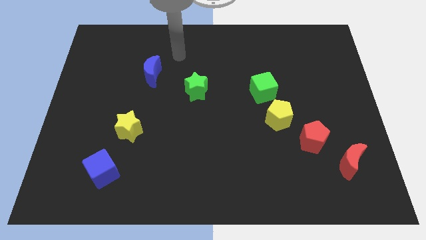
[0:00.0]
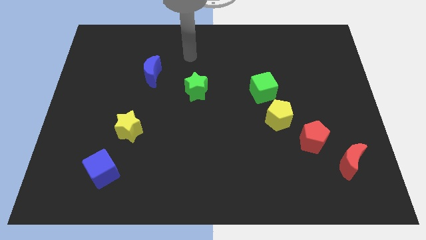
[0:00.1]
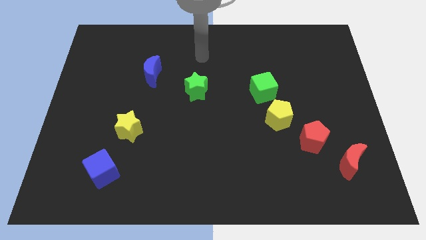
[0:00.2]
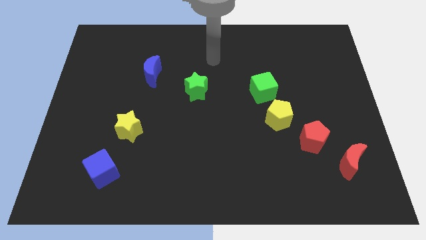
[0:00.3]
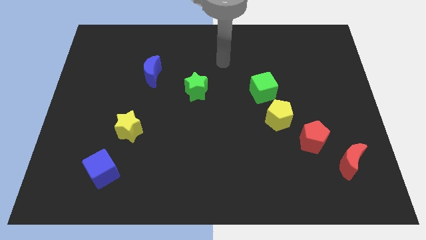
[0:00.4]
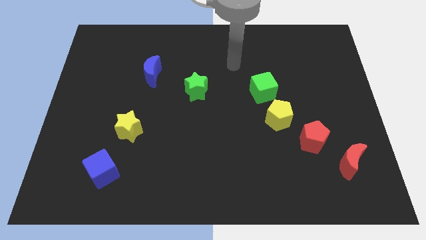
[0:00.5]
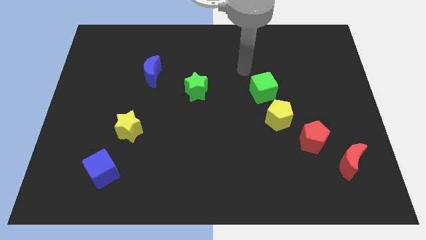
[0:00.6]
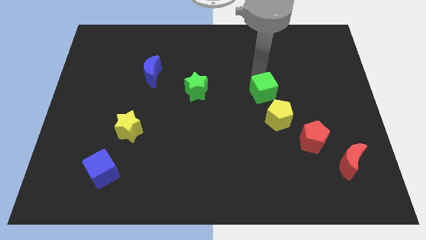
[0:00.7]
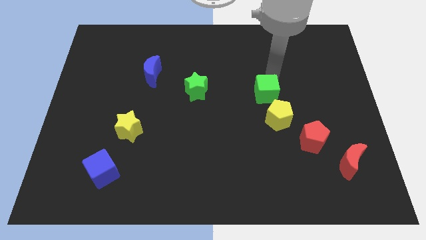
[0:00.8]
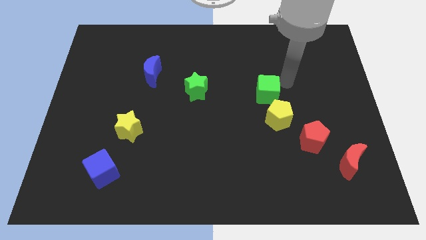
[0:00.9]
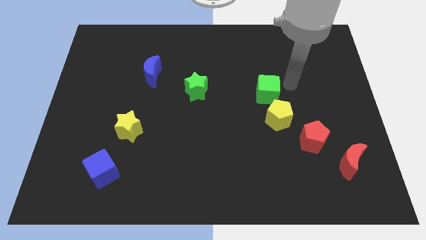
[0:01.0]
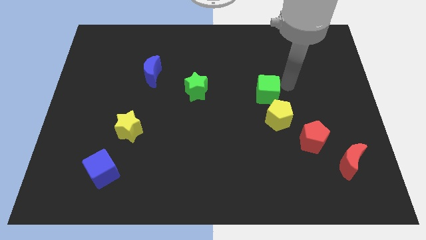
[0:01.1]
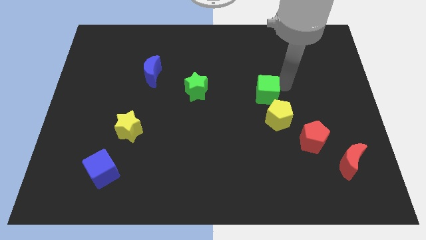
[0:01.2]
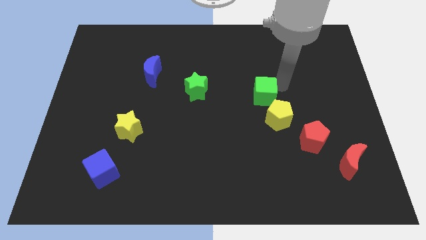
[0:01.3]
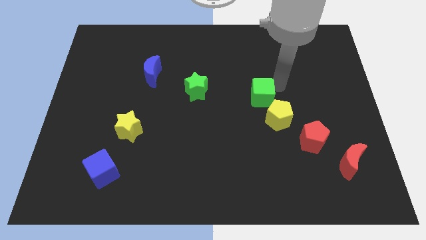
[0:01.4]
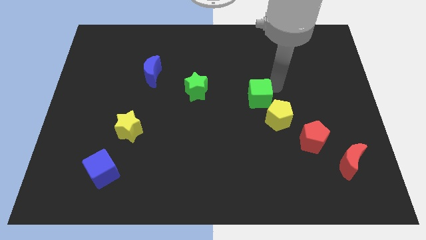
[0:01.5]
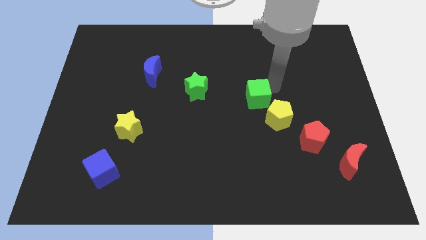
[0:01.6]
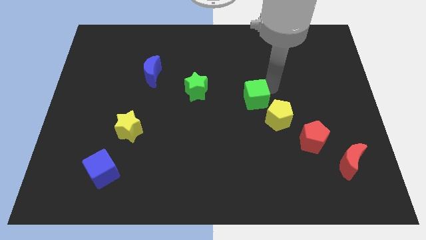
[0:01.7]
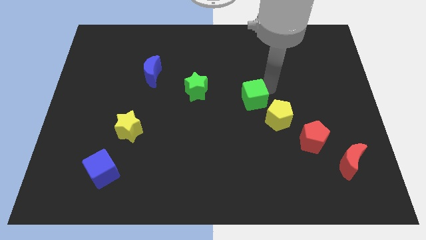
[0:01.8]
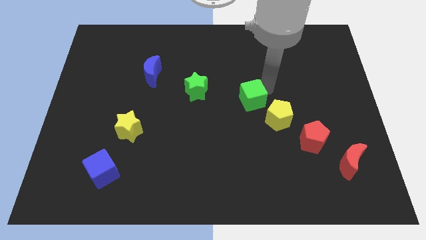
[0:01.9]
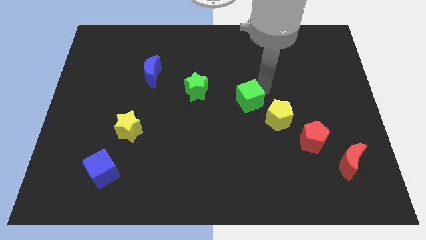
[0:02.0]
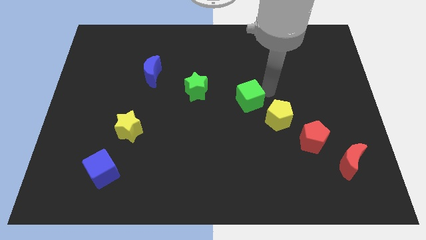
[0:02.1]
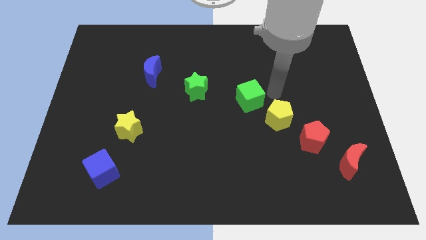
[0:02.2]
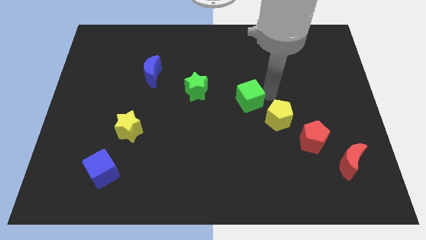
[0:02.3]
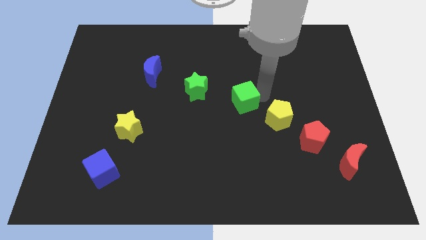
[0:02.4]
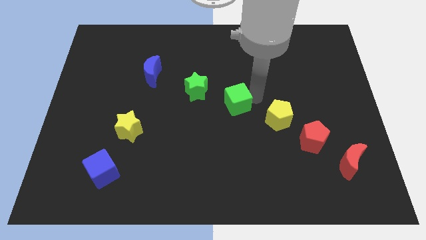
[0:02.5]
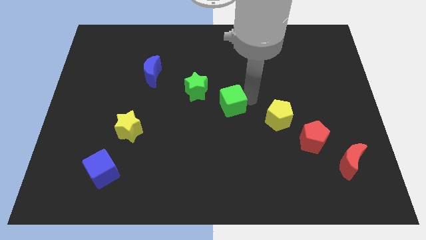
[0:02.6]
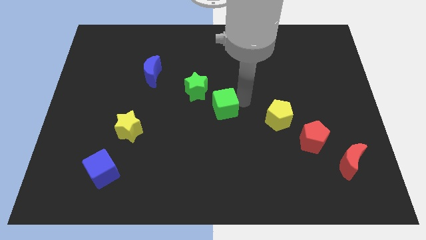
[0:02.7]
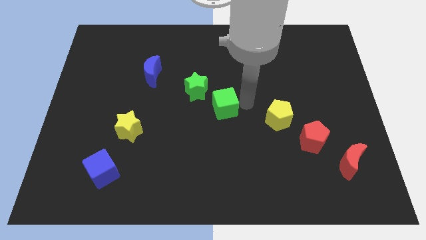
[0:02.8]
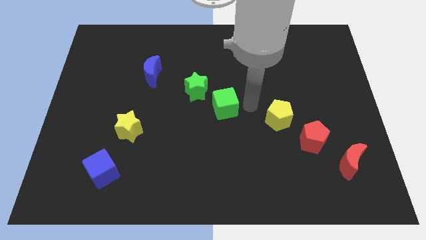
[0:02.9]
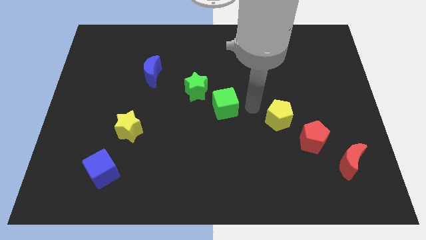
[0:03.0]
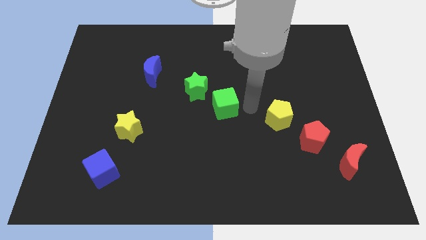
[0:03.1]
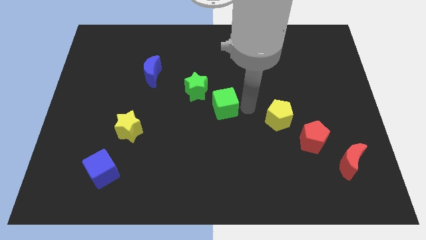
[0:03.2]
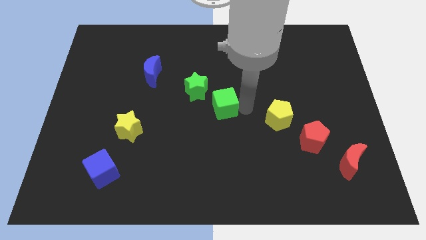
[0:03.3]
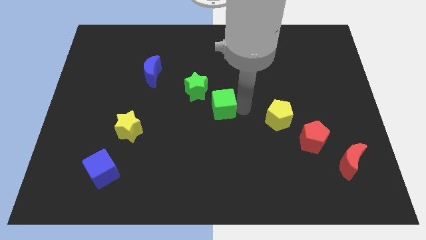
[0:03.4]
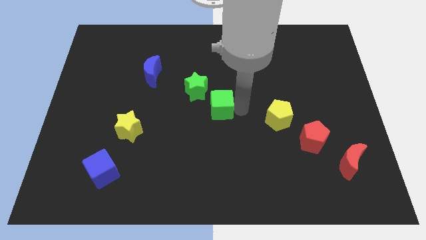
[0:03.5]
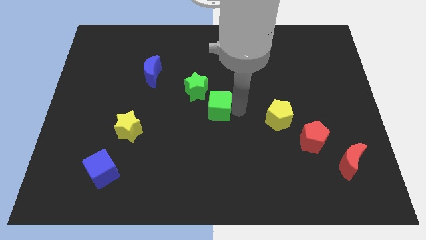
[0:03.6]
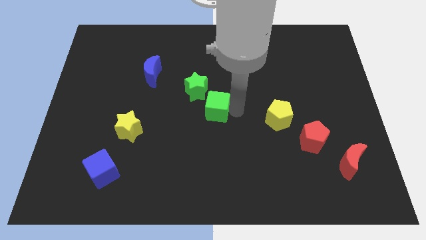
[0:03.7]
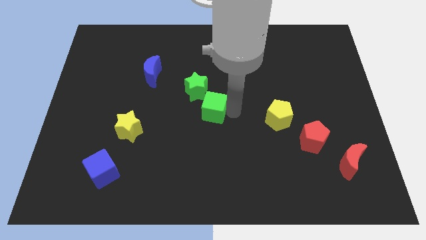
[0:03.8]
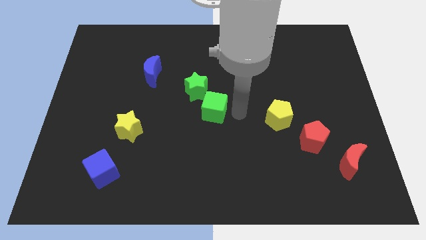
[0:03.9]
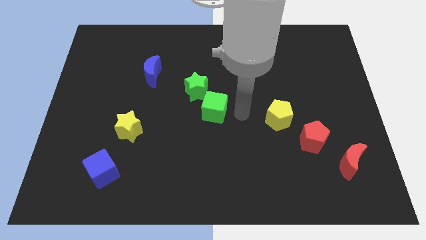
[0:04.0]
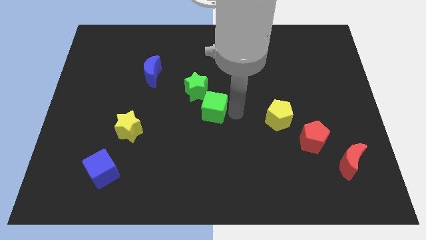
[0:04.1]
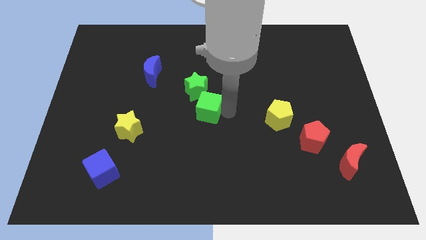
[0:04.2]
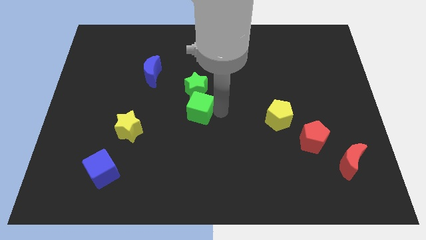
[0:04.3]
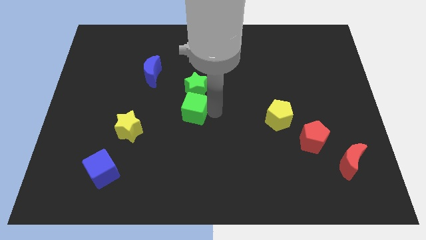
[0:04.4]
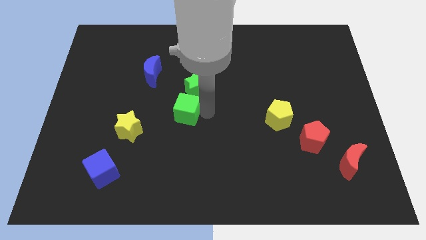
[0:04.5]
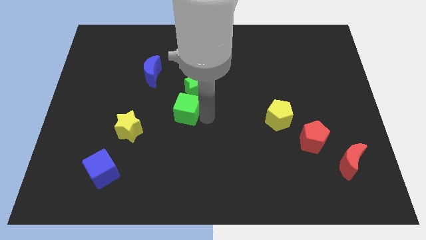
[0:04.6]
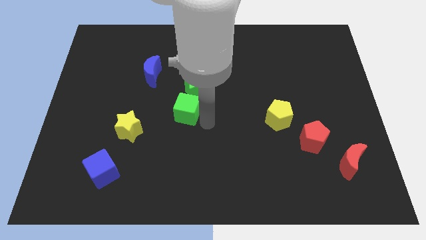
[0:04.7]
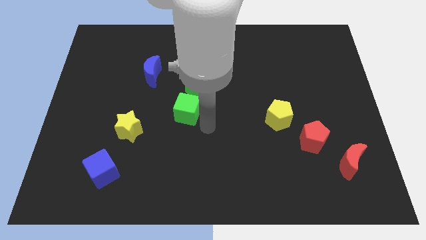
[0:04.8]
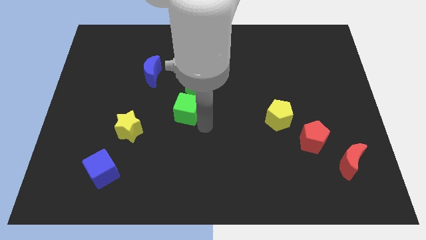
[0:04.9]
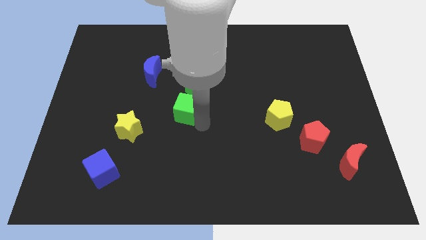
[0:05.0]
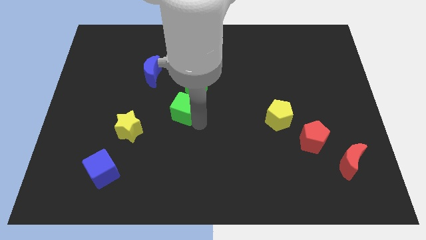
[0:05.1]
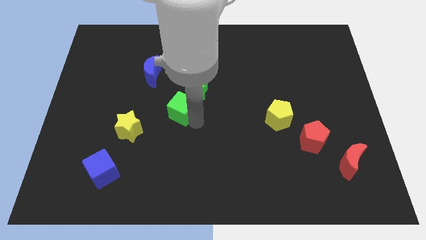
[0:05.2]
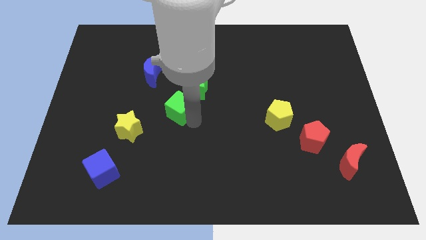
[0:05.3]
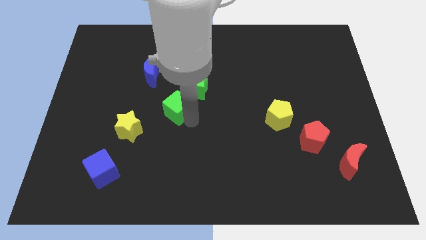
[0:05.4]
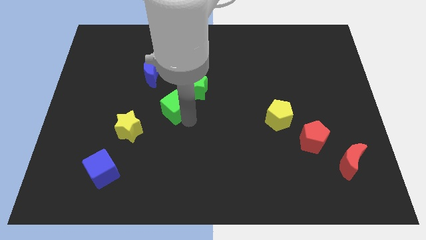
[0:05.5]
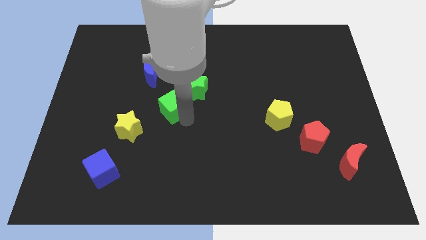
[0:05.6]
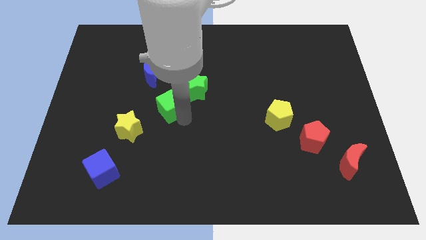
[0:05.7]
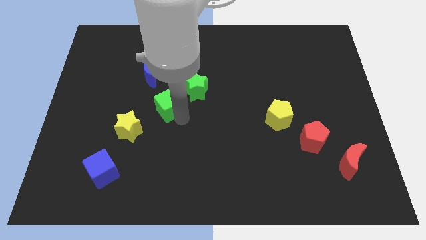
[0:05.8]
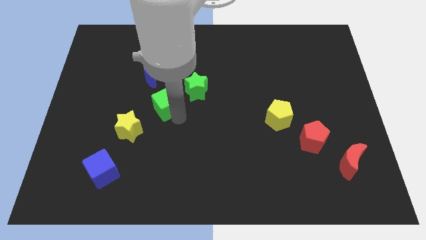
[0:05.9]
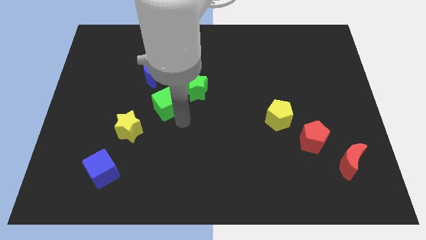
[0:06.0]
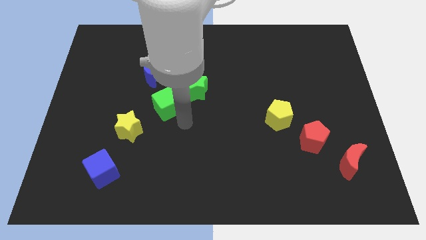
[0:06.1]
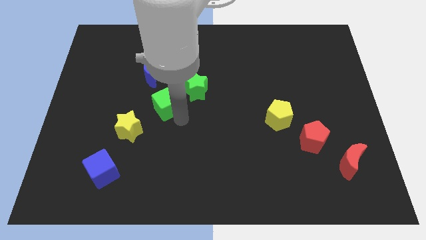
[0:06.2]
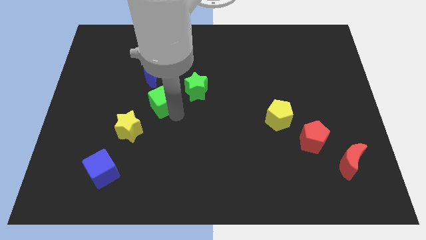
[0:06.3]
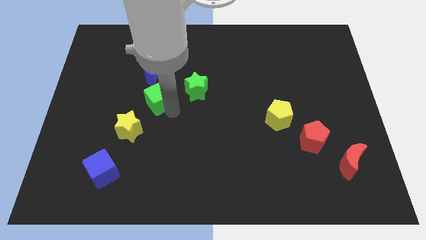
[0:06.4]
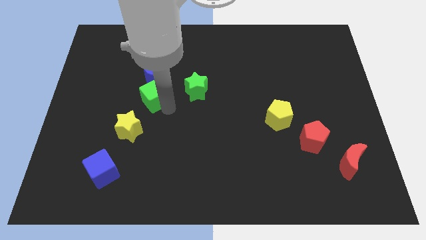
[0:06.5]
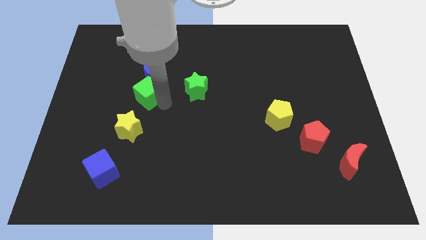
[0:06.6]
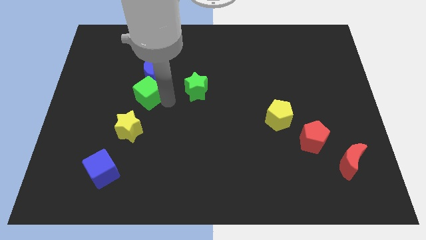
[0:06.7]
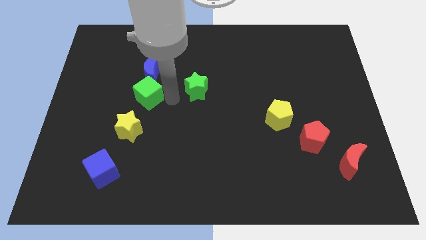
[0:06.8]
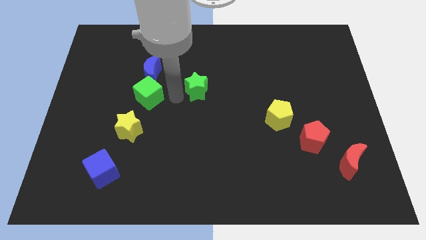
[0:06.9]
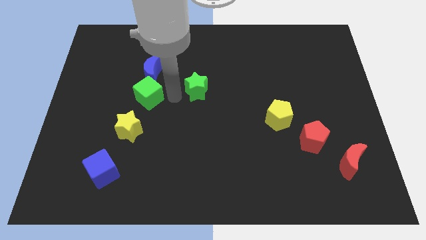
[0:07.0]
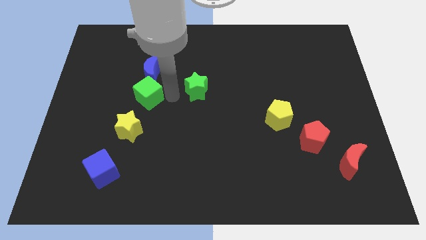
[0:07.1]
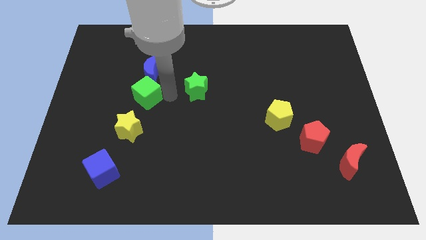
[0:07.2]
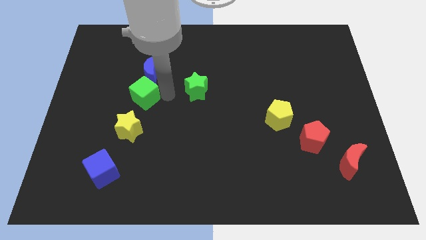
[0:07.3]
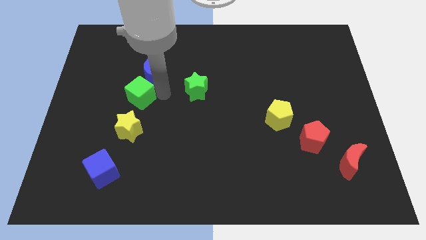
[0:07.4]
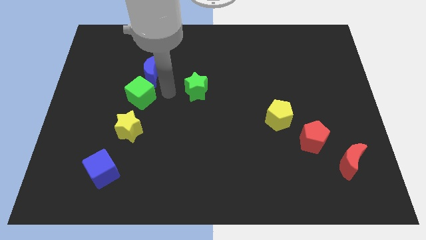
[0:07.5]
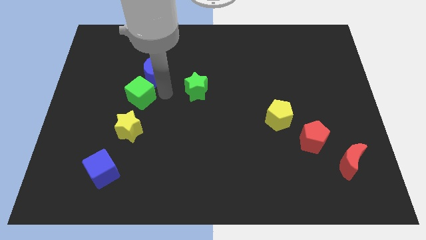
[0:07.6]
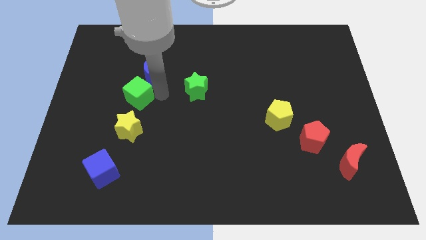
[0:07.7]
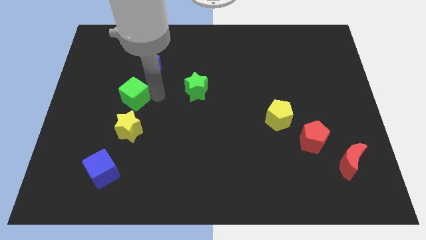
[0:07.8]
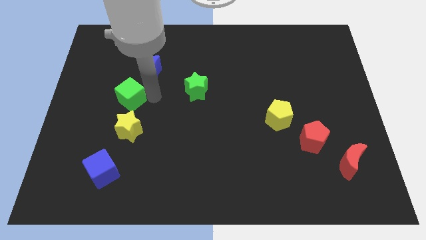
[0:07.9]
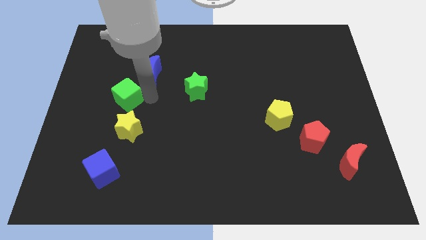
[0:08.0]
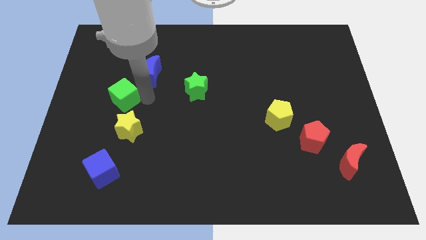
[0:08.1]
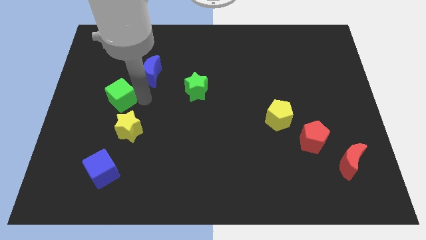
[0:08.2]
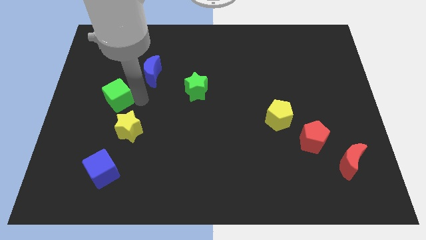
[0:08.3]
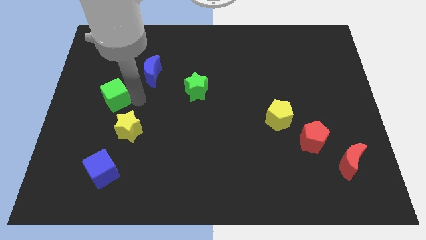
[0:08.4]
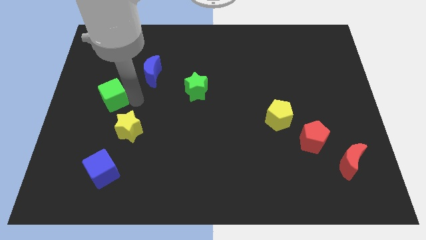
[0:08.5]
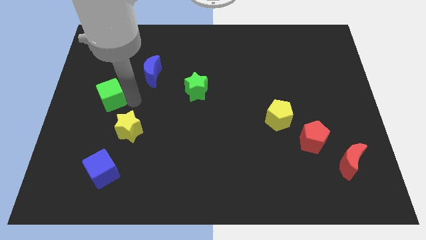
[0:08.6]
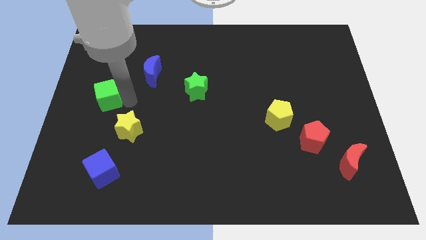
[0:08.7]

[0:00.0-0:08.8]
move the green cube to the center left
